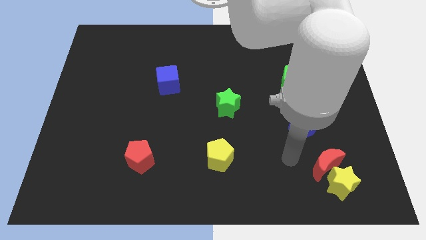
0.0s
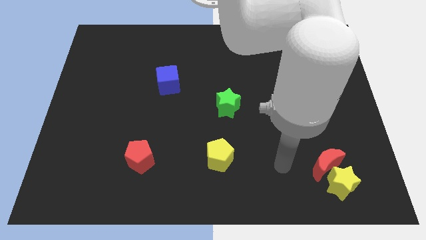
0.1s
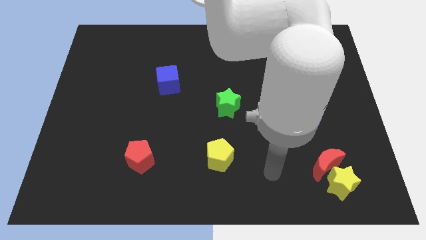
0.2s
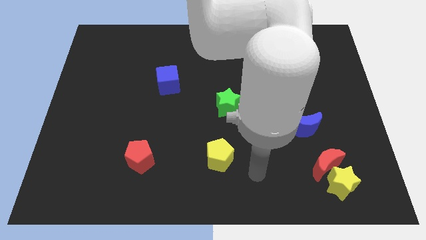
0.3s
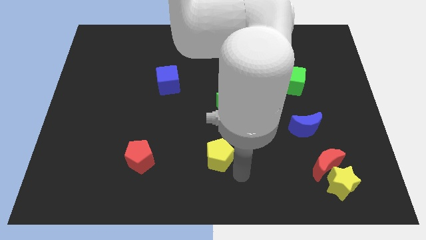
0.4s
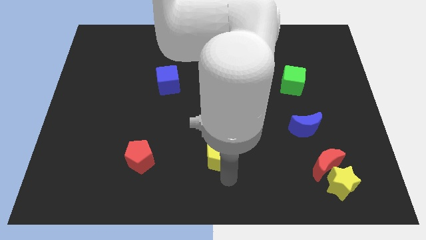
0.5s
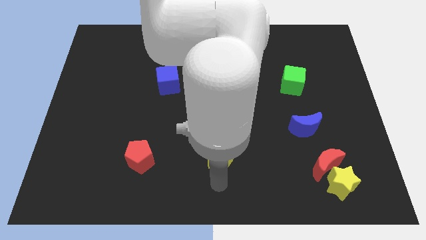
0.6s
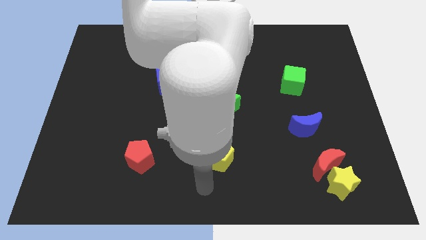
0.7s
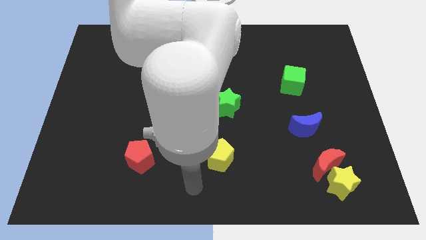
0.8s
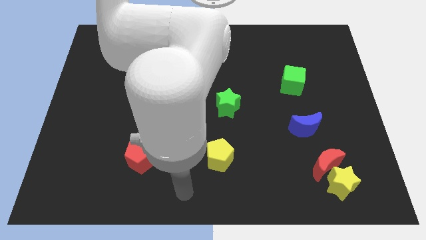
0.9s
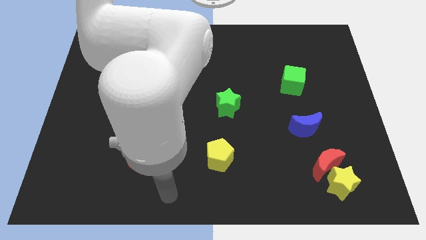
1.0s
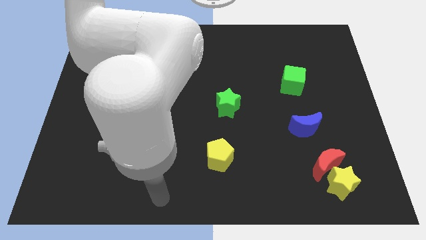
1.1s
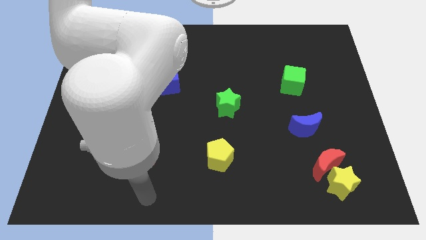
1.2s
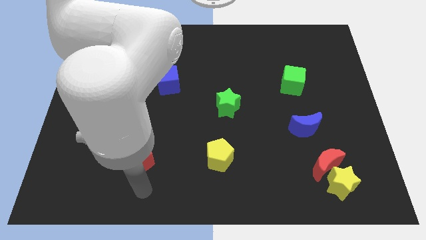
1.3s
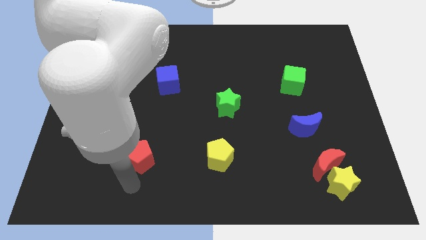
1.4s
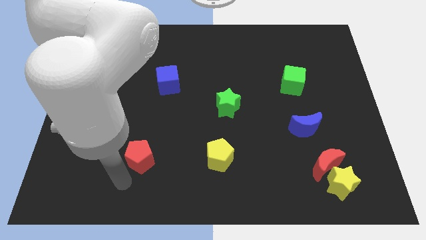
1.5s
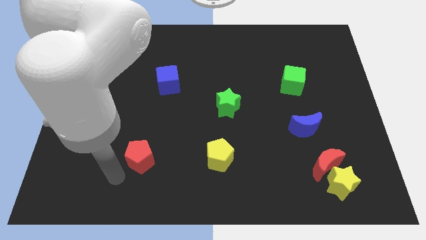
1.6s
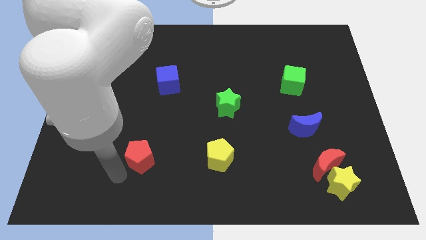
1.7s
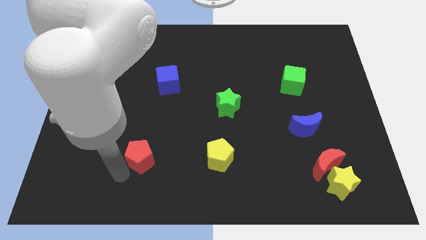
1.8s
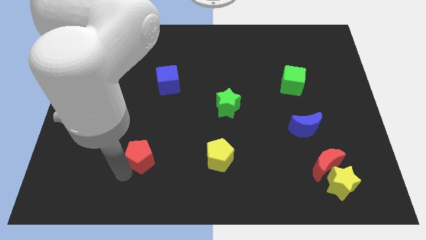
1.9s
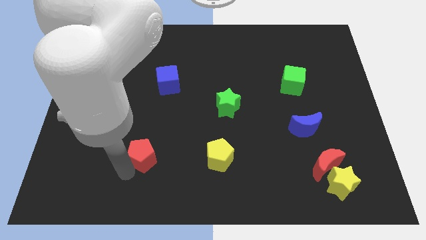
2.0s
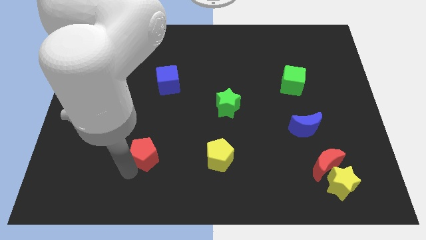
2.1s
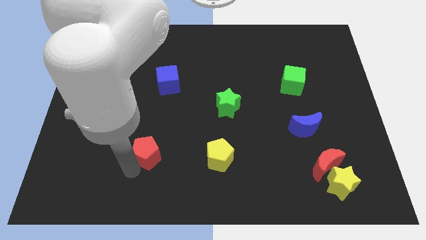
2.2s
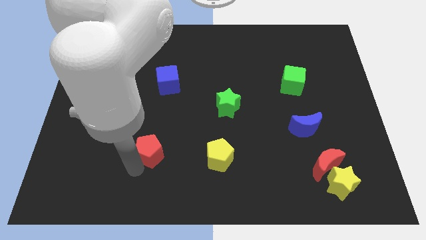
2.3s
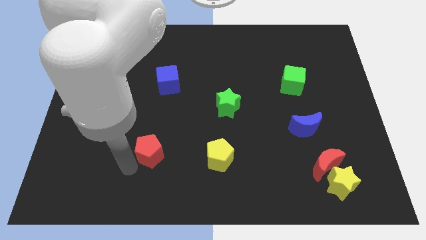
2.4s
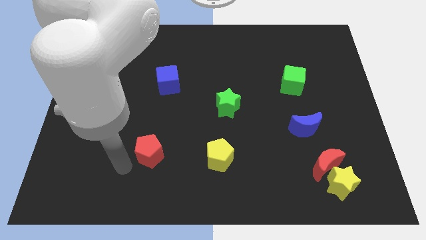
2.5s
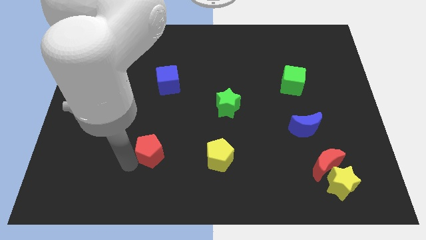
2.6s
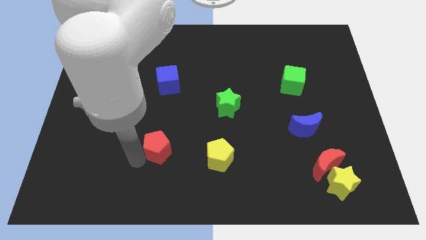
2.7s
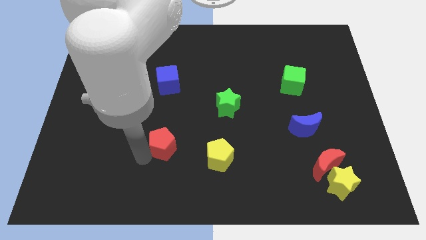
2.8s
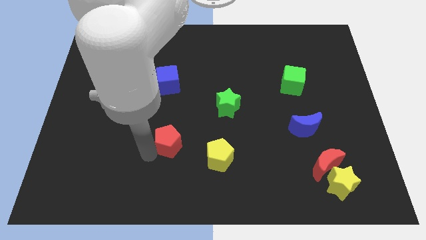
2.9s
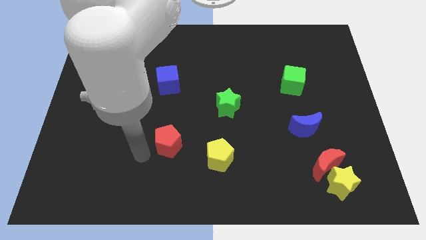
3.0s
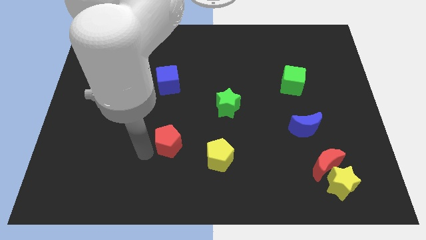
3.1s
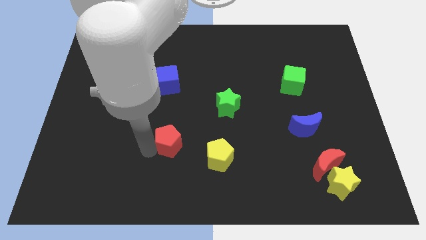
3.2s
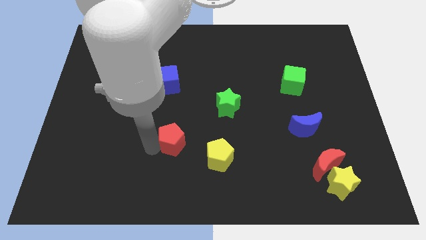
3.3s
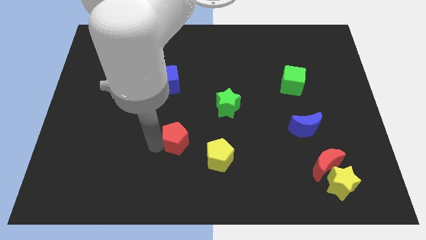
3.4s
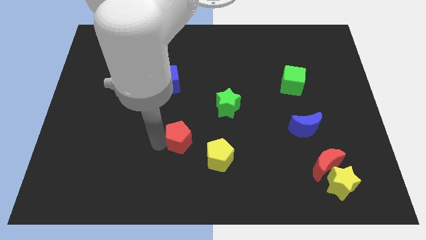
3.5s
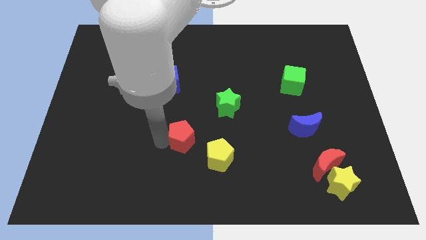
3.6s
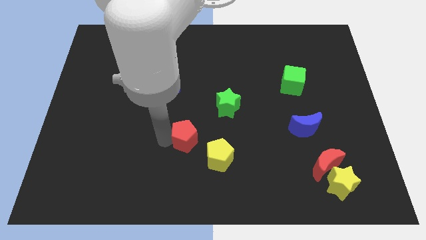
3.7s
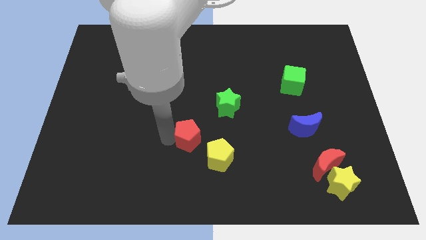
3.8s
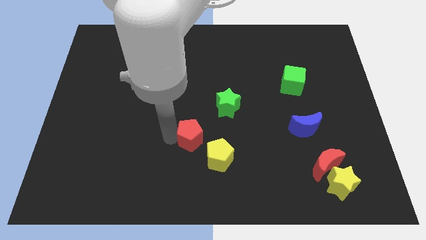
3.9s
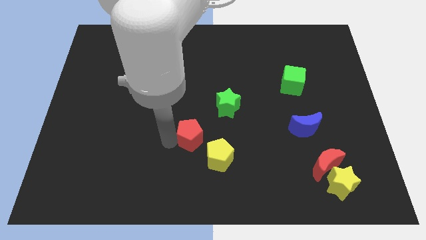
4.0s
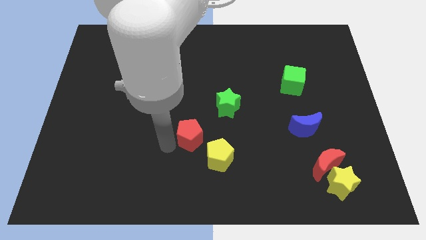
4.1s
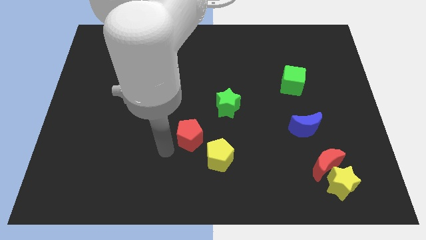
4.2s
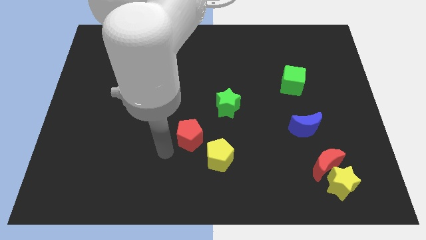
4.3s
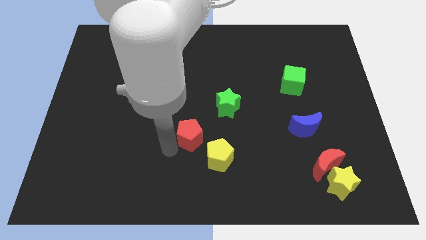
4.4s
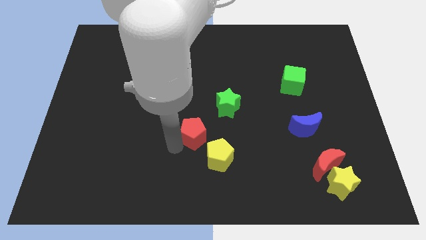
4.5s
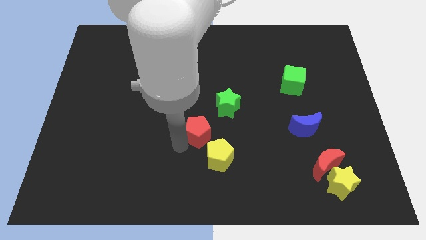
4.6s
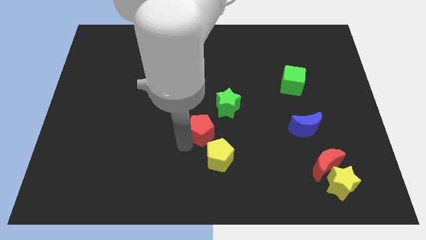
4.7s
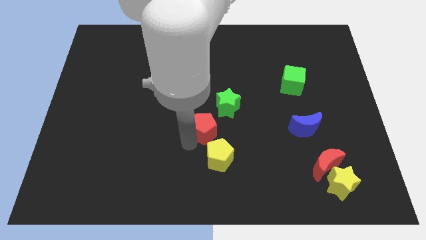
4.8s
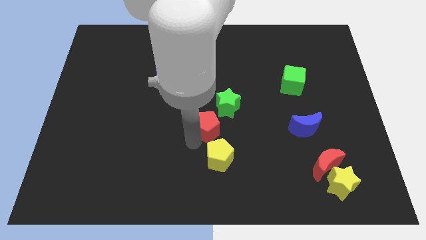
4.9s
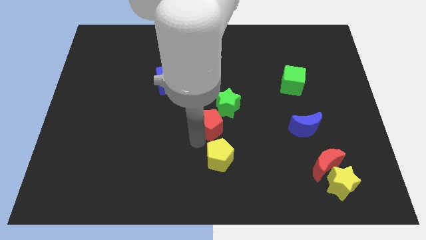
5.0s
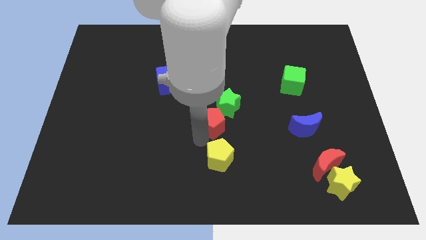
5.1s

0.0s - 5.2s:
push the red pentagon towards the green star

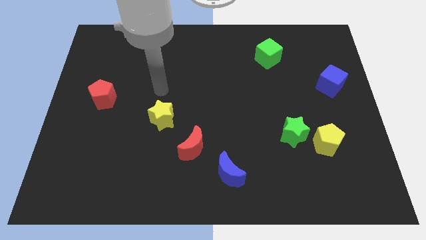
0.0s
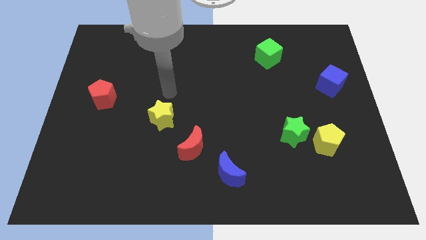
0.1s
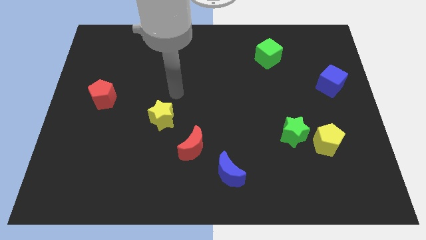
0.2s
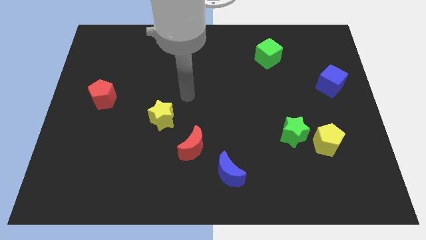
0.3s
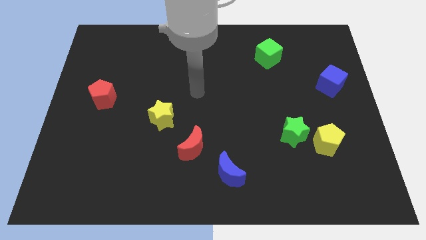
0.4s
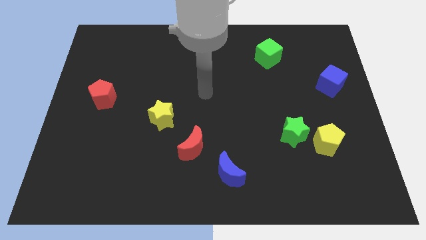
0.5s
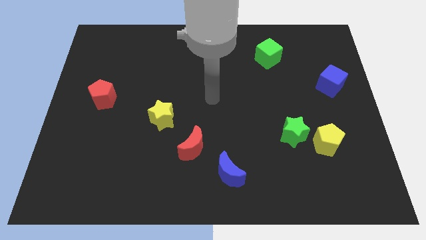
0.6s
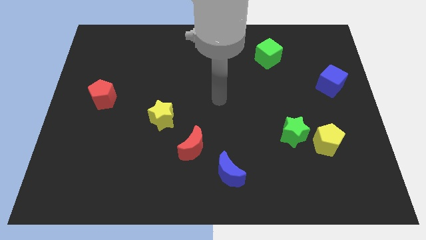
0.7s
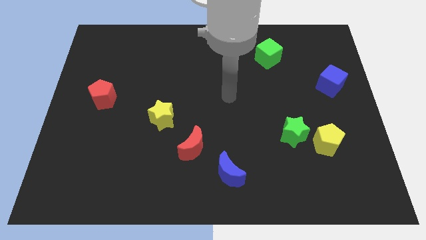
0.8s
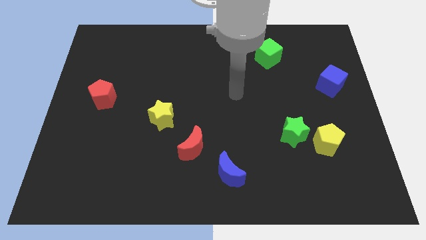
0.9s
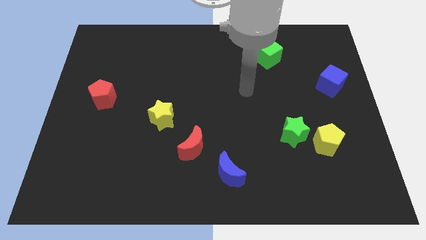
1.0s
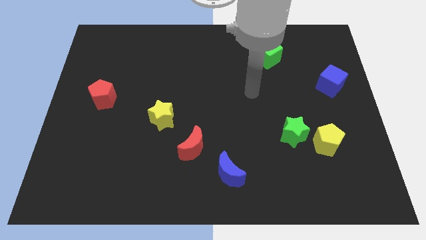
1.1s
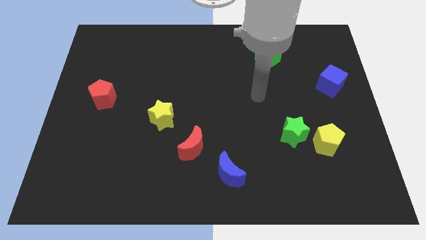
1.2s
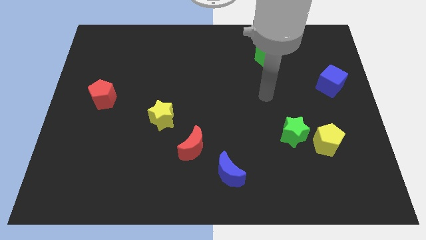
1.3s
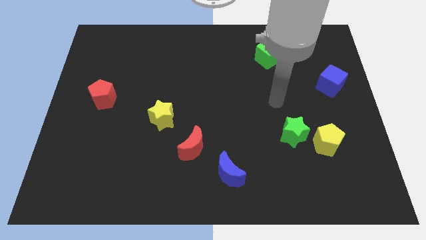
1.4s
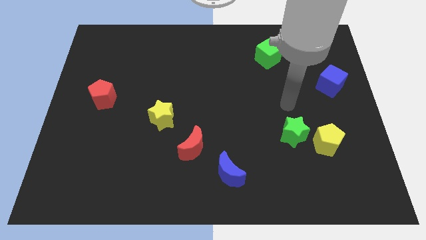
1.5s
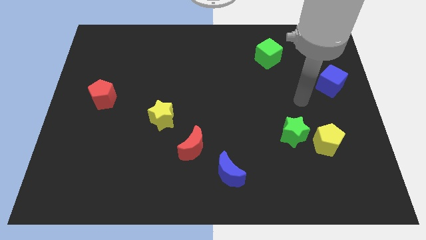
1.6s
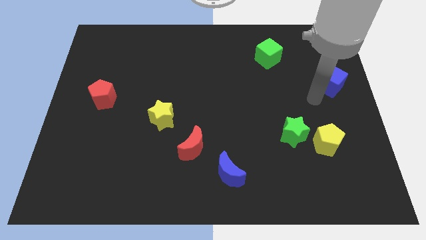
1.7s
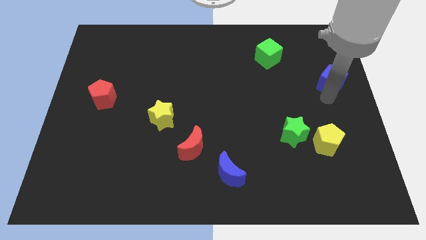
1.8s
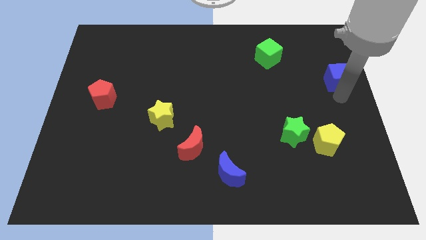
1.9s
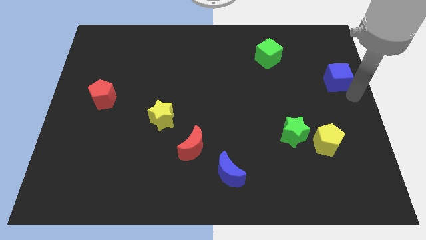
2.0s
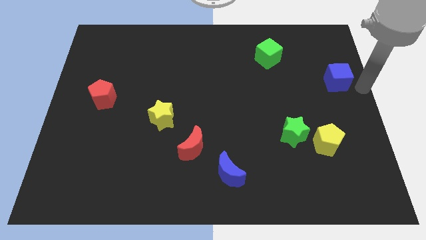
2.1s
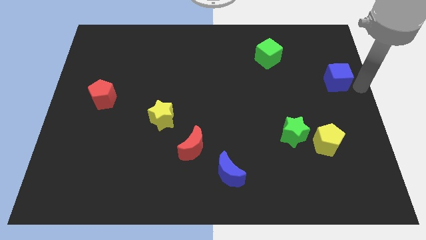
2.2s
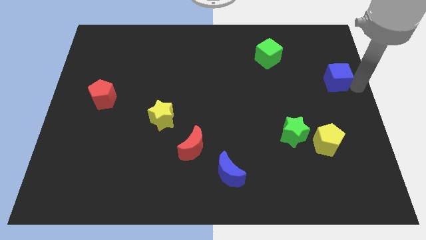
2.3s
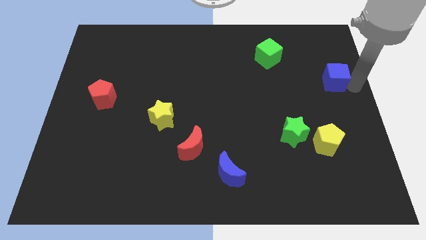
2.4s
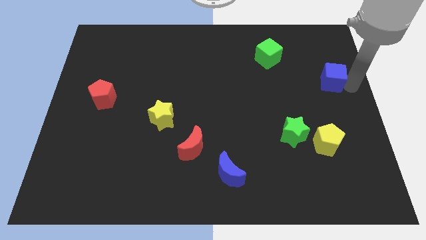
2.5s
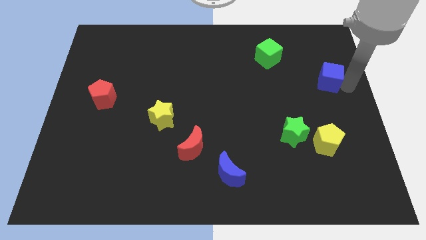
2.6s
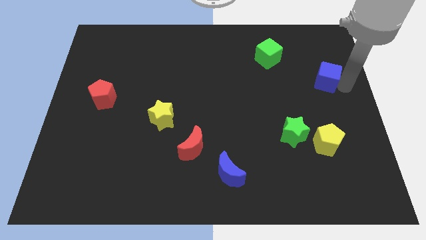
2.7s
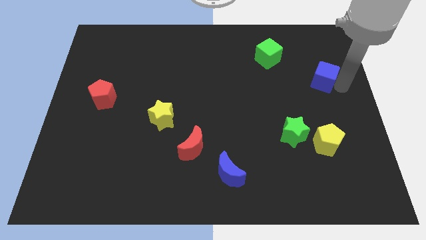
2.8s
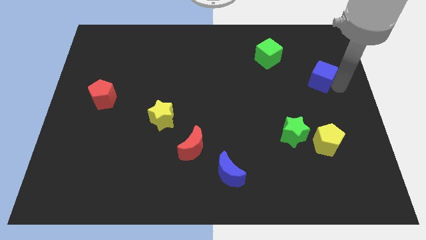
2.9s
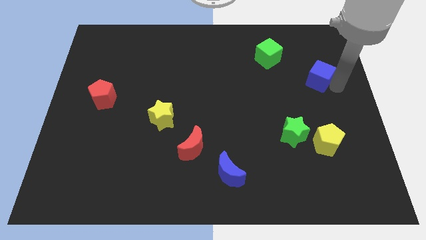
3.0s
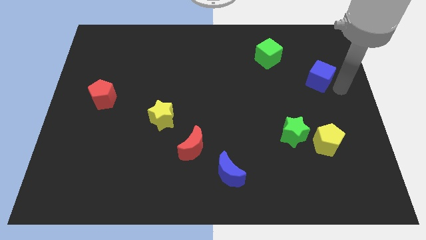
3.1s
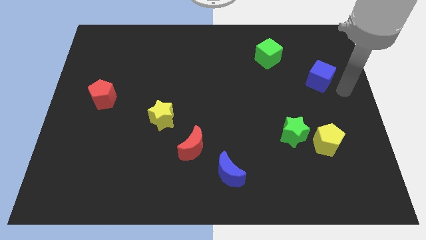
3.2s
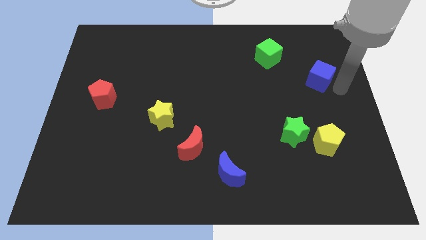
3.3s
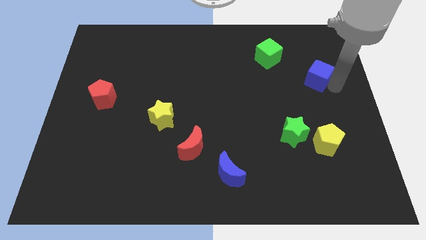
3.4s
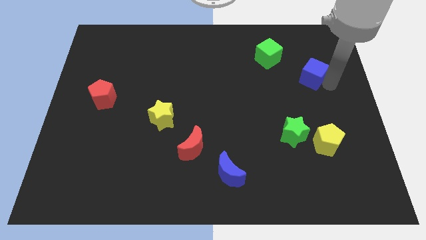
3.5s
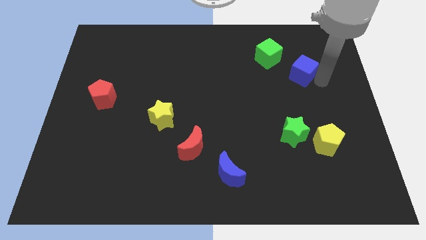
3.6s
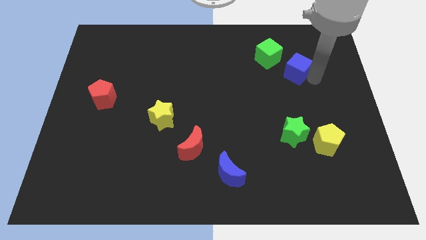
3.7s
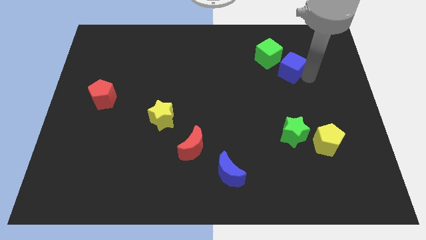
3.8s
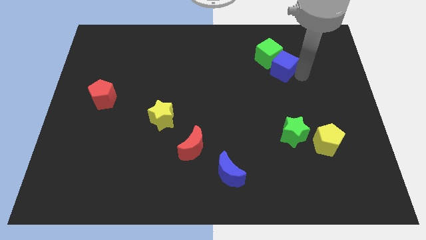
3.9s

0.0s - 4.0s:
slide the blue cube close to the green cube
